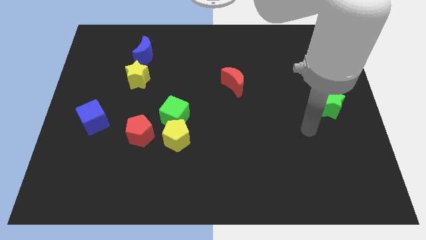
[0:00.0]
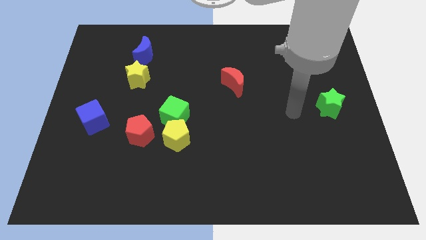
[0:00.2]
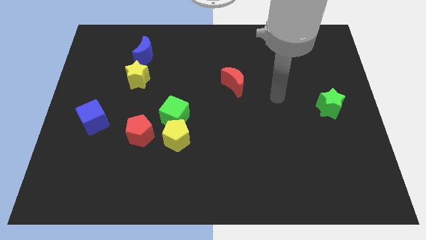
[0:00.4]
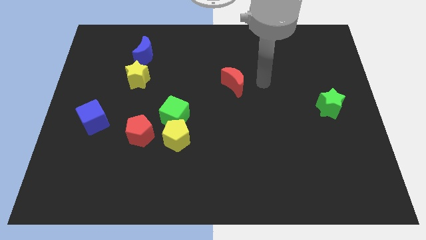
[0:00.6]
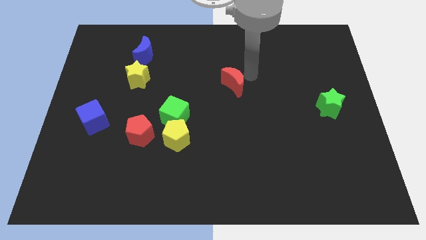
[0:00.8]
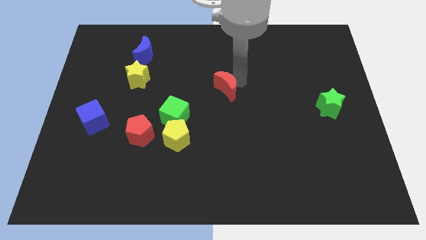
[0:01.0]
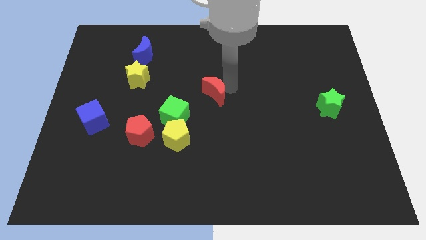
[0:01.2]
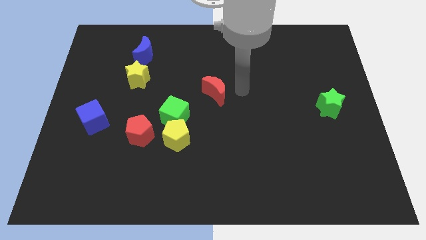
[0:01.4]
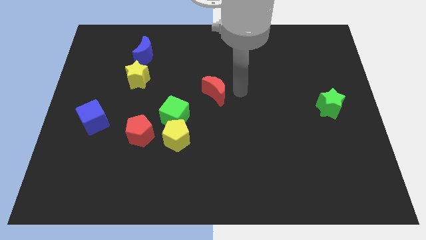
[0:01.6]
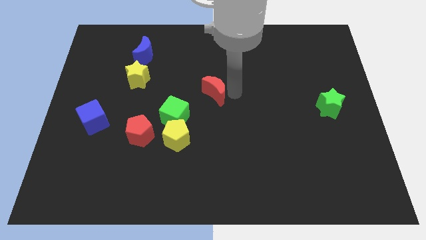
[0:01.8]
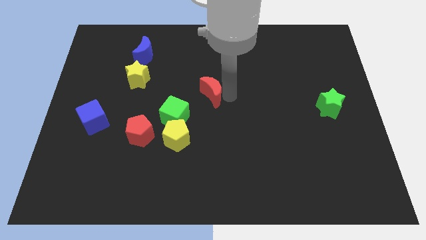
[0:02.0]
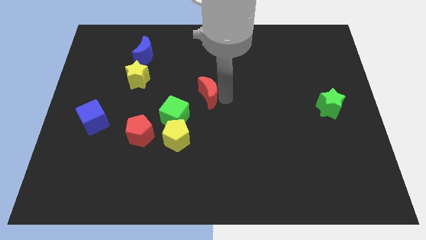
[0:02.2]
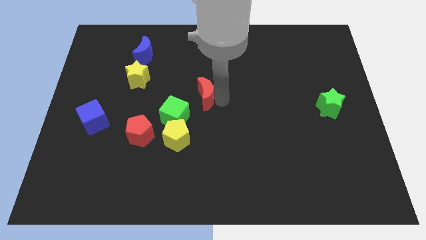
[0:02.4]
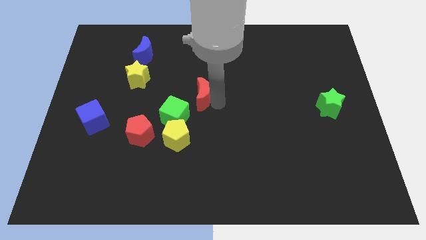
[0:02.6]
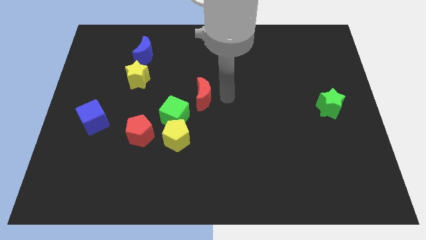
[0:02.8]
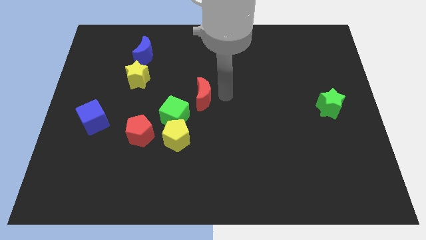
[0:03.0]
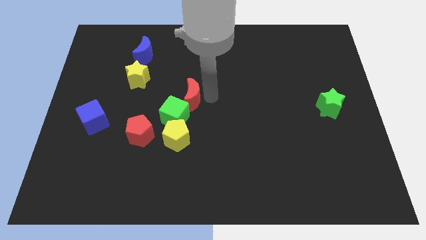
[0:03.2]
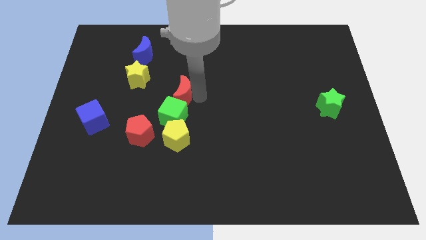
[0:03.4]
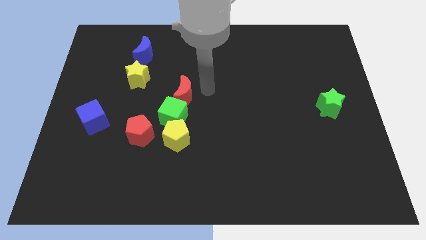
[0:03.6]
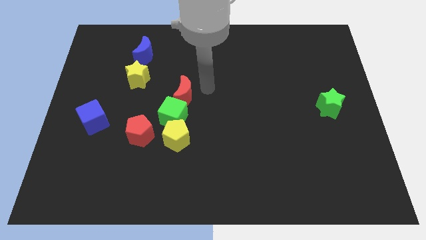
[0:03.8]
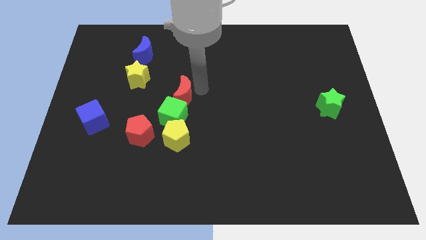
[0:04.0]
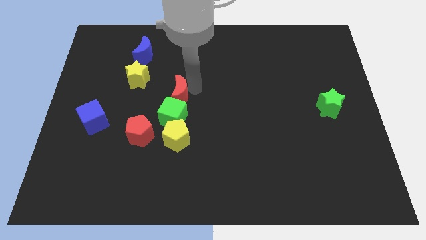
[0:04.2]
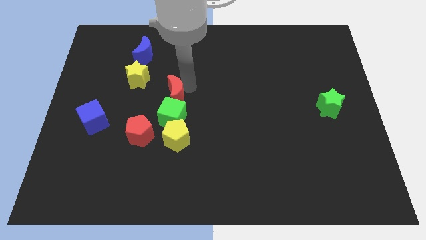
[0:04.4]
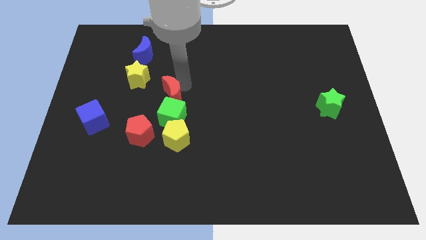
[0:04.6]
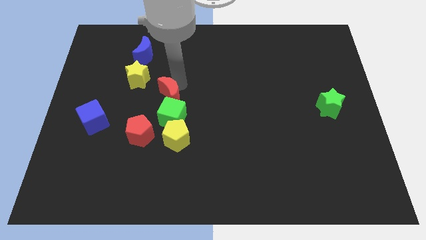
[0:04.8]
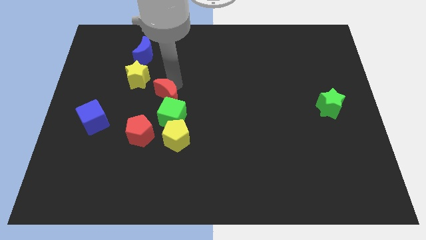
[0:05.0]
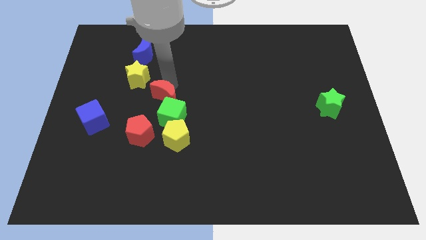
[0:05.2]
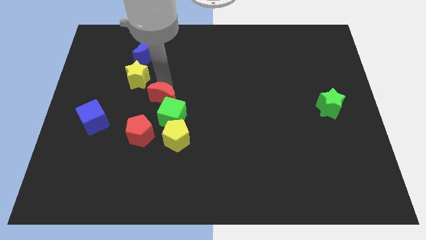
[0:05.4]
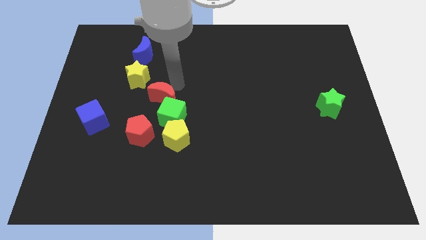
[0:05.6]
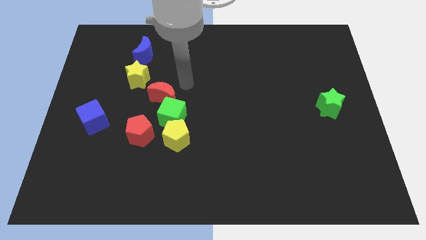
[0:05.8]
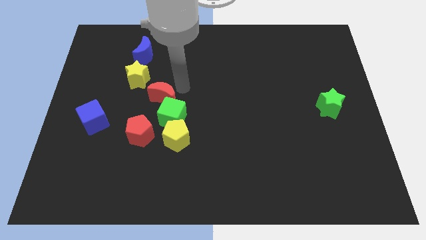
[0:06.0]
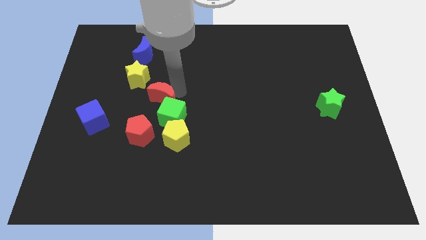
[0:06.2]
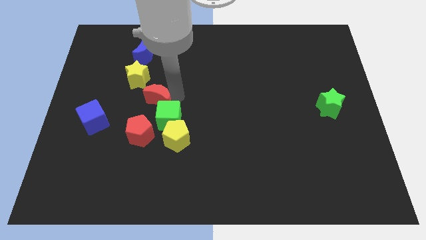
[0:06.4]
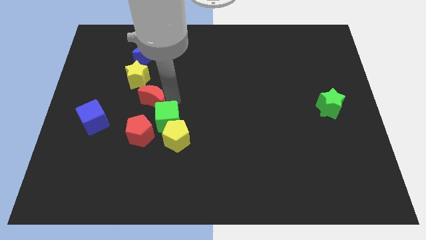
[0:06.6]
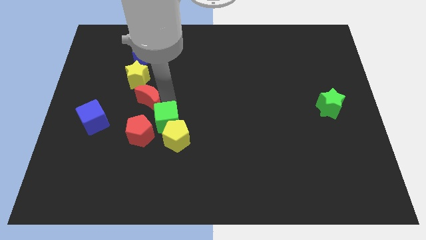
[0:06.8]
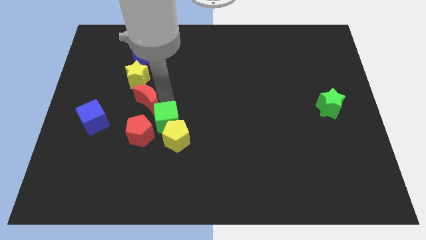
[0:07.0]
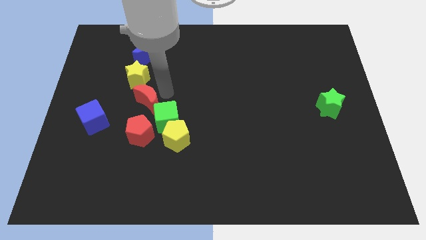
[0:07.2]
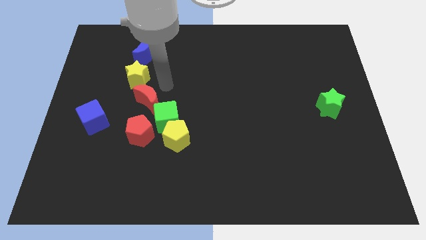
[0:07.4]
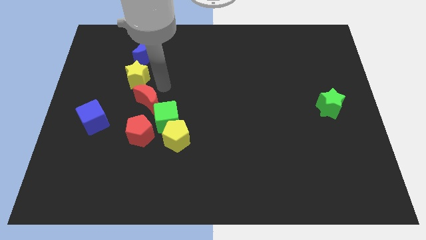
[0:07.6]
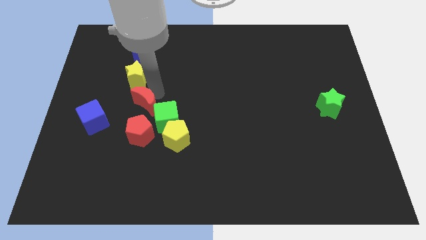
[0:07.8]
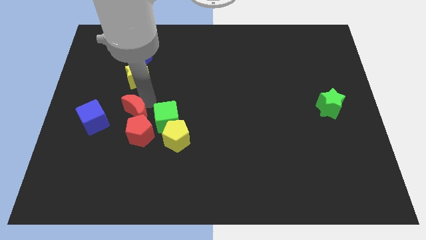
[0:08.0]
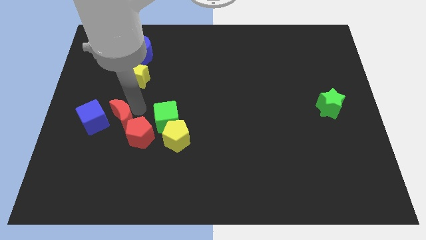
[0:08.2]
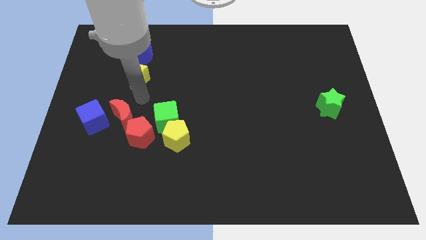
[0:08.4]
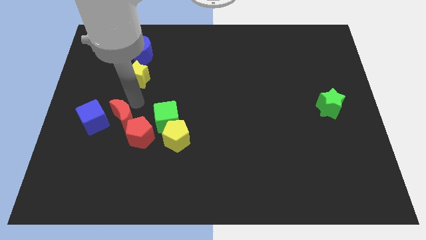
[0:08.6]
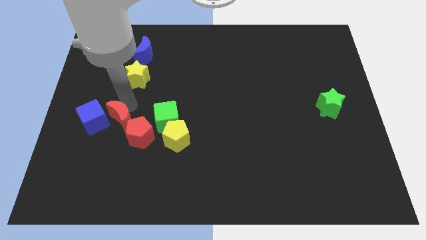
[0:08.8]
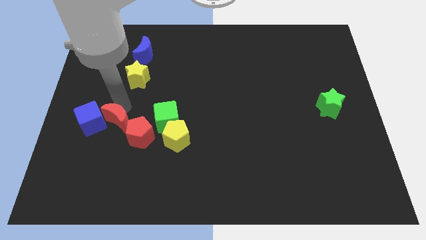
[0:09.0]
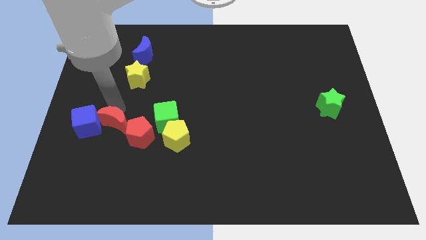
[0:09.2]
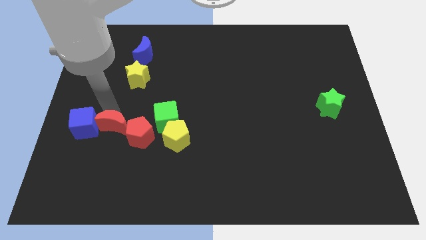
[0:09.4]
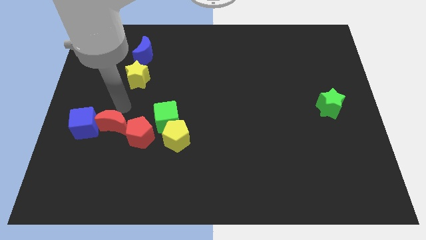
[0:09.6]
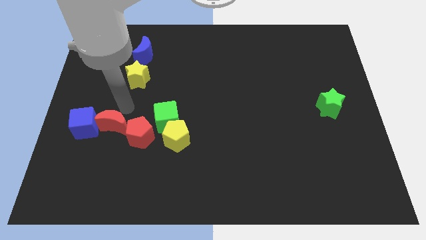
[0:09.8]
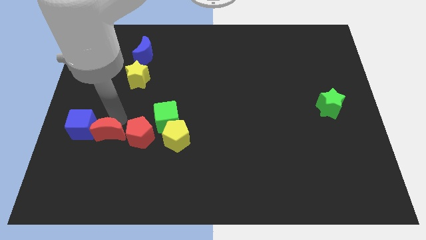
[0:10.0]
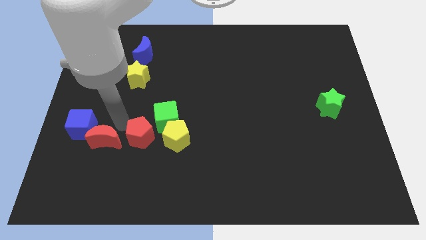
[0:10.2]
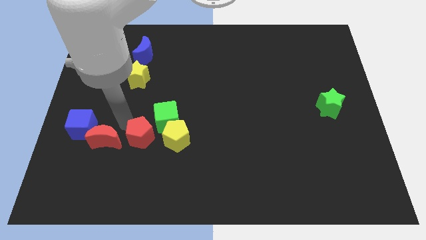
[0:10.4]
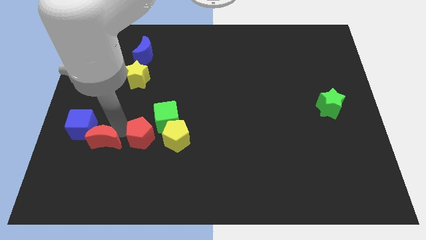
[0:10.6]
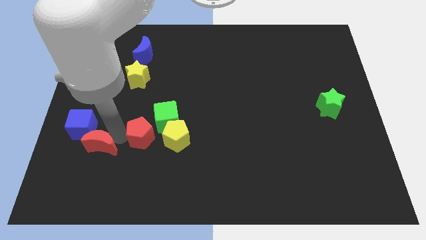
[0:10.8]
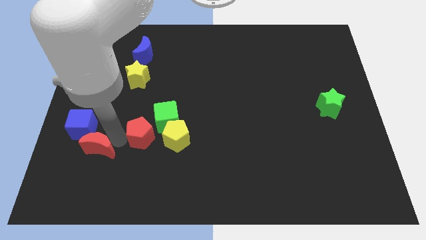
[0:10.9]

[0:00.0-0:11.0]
slide the red moon to the bottom of the blue cube
